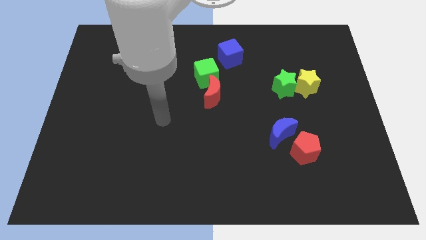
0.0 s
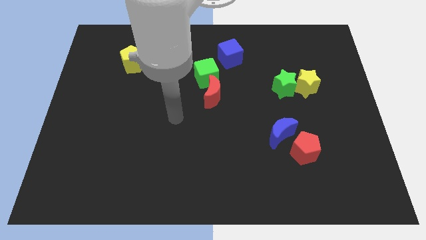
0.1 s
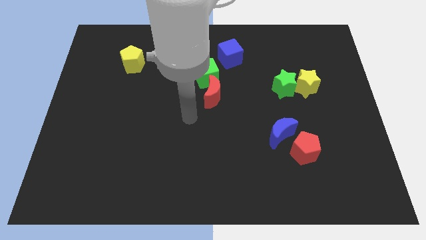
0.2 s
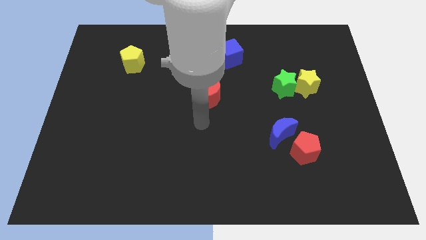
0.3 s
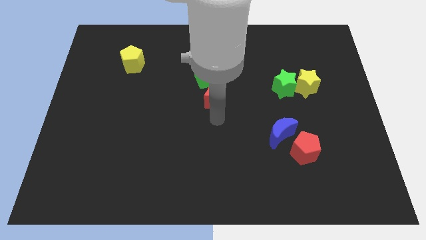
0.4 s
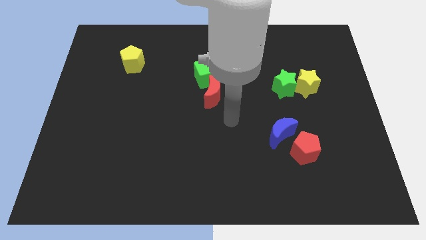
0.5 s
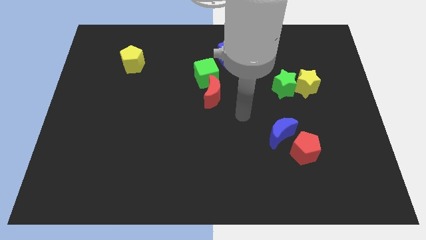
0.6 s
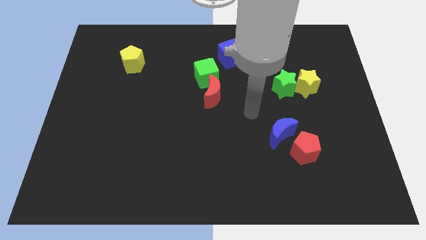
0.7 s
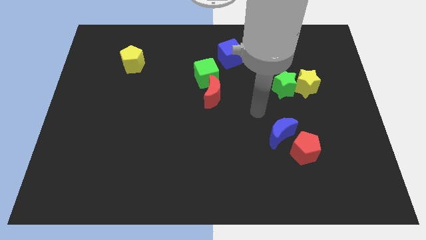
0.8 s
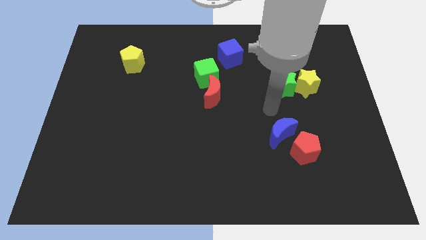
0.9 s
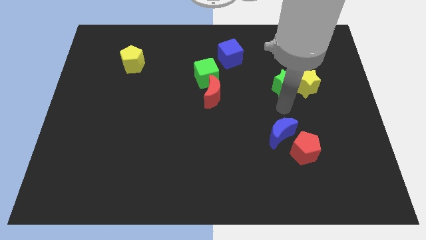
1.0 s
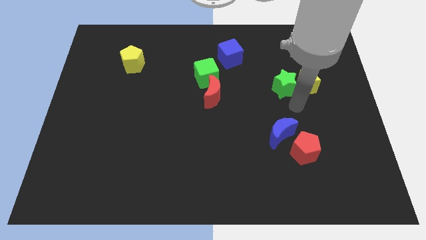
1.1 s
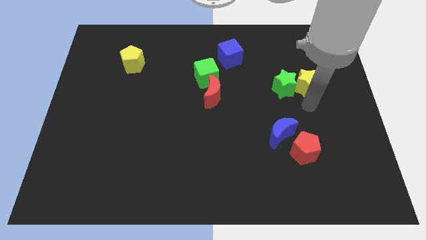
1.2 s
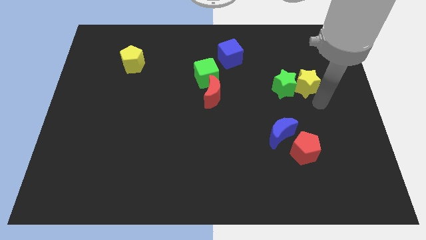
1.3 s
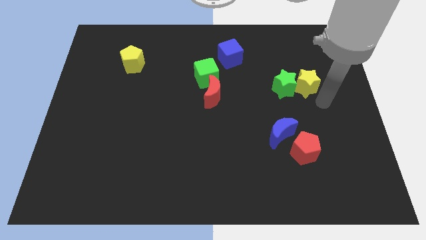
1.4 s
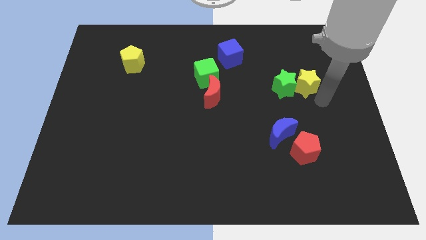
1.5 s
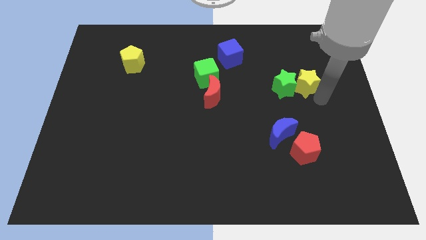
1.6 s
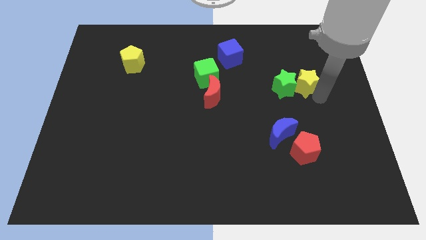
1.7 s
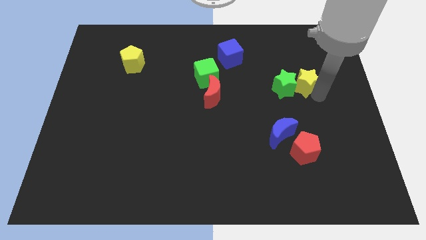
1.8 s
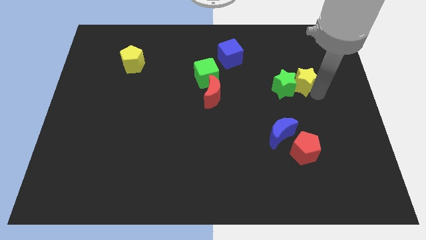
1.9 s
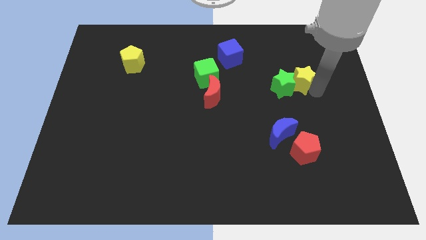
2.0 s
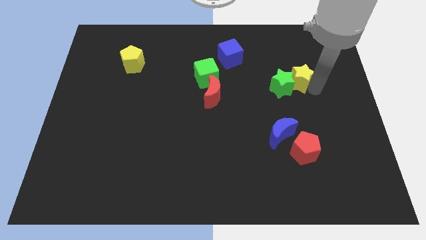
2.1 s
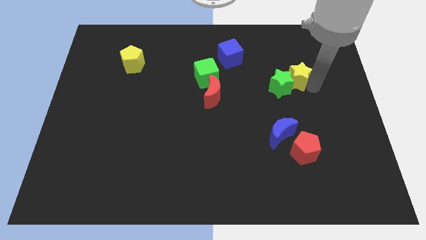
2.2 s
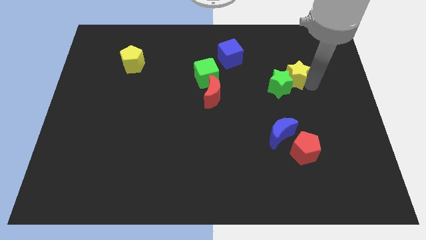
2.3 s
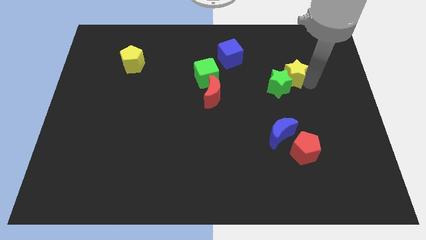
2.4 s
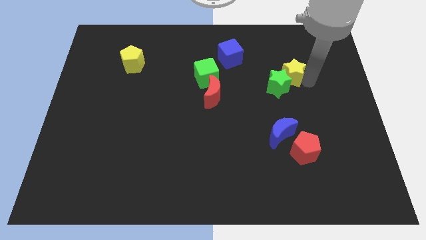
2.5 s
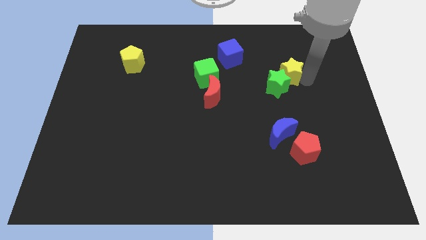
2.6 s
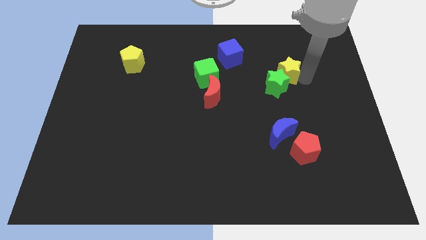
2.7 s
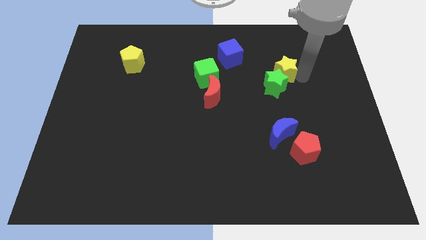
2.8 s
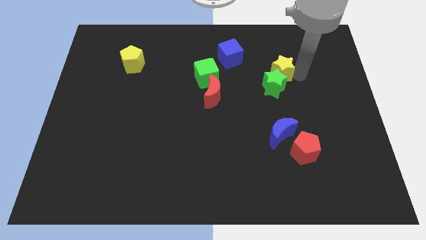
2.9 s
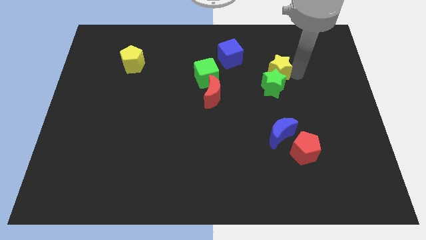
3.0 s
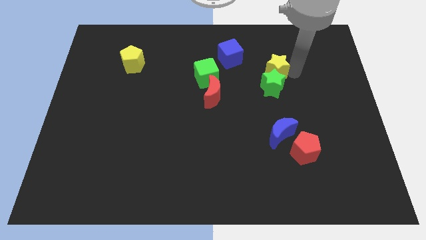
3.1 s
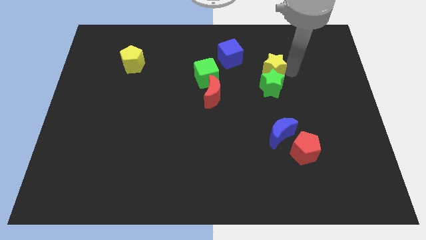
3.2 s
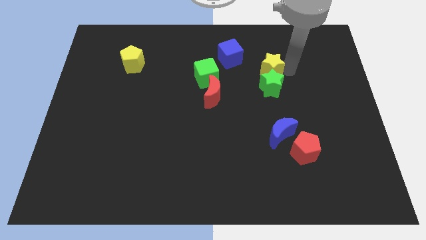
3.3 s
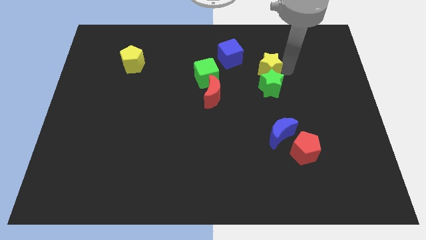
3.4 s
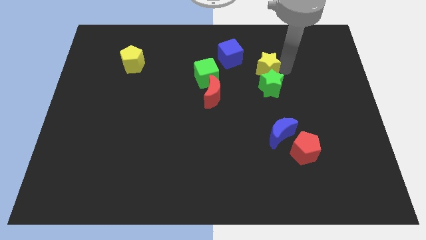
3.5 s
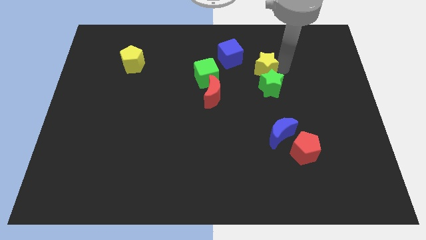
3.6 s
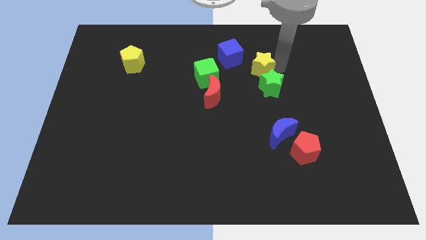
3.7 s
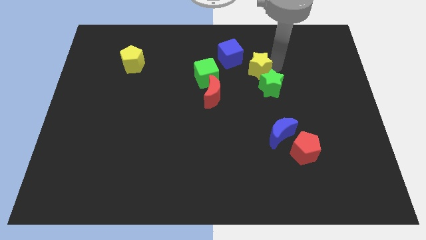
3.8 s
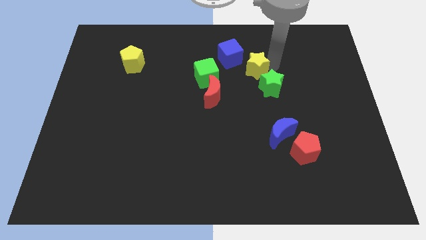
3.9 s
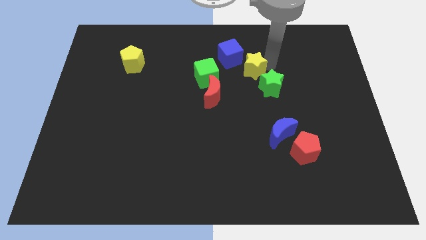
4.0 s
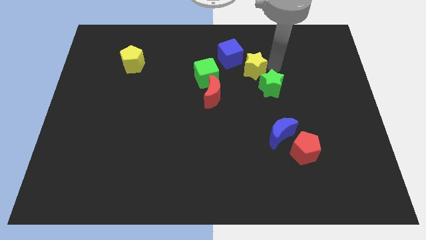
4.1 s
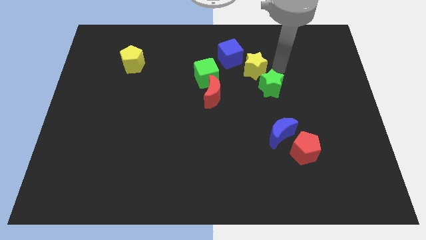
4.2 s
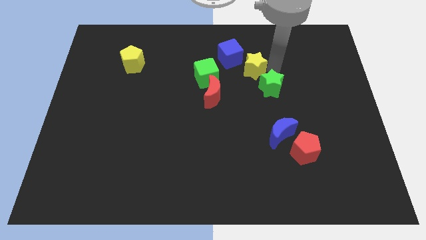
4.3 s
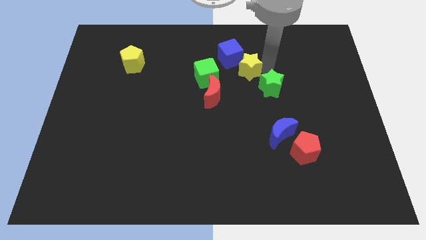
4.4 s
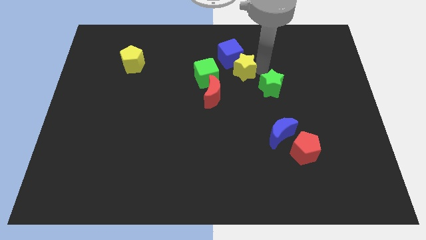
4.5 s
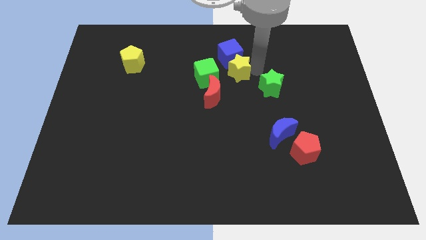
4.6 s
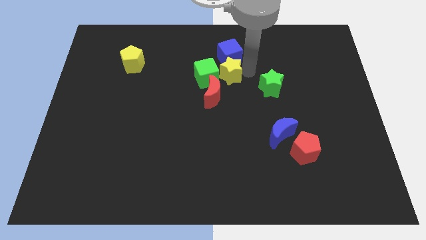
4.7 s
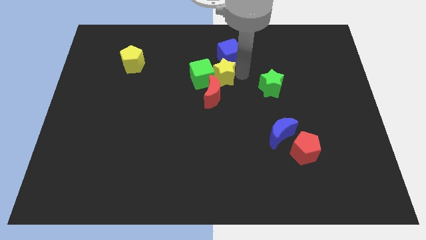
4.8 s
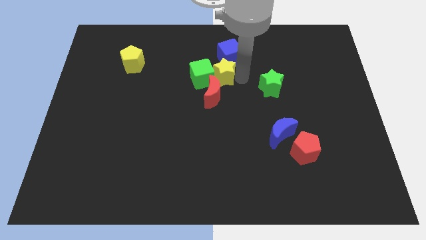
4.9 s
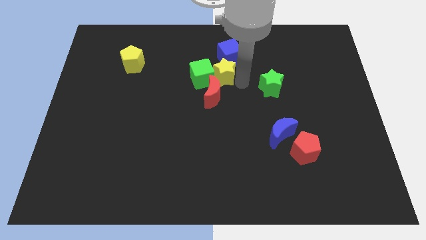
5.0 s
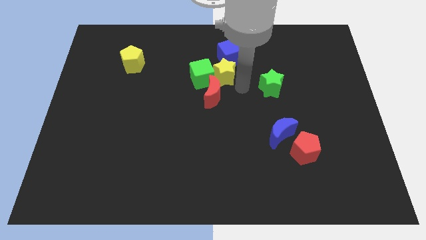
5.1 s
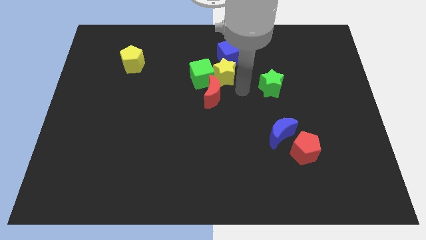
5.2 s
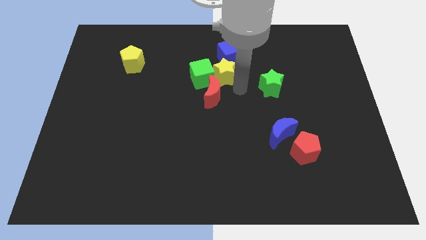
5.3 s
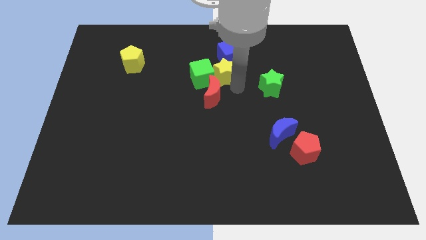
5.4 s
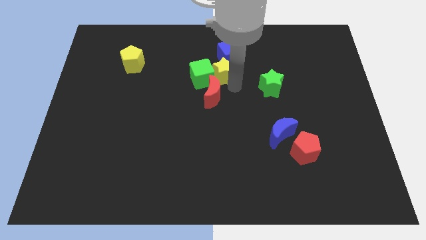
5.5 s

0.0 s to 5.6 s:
move the yellow star left

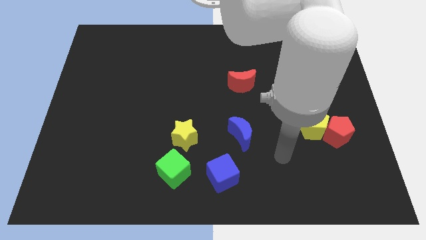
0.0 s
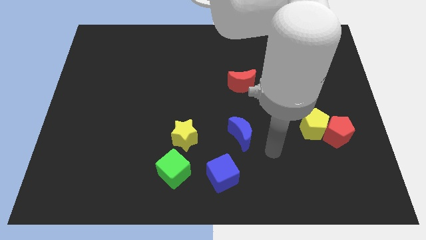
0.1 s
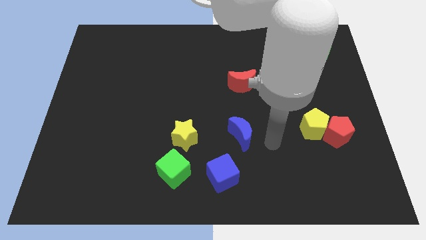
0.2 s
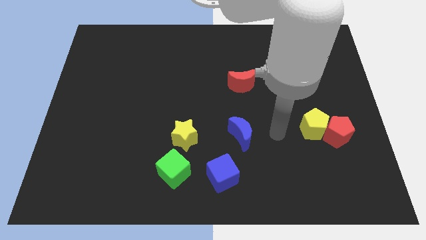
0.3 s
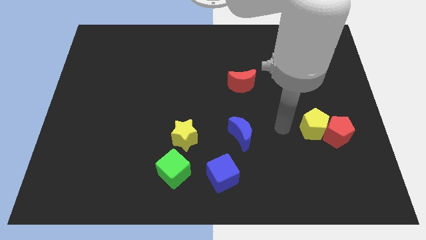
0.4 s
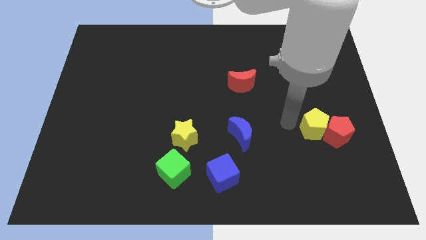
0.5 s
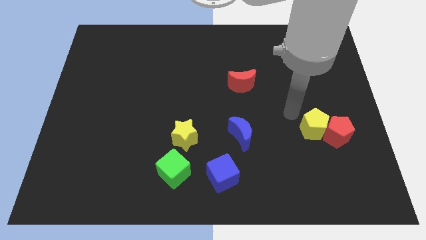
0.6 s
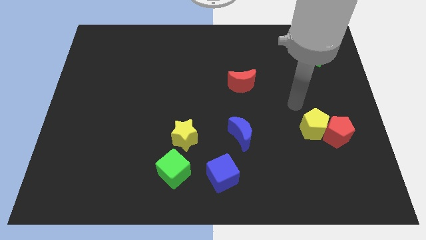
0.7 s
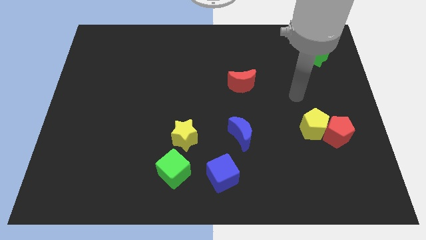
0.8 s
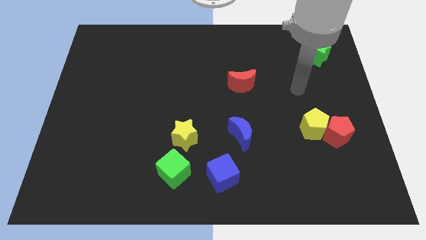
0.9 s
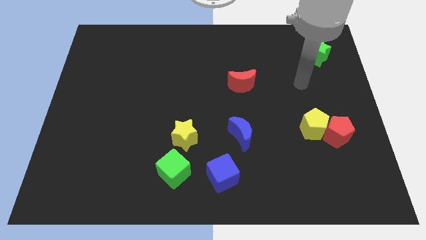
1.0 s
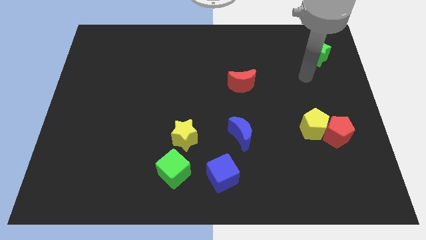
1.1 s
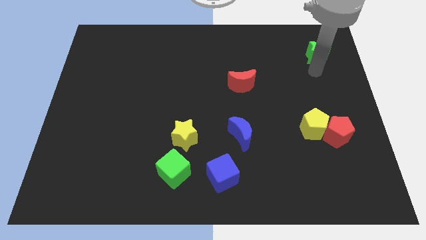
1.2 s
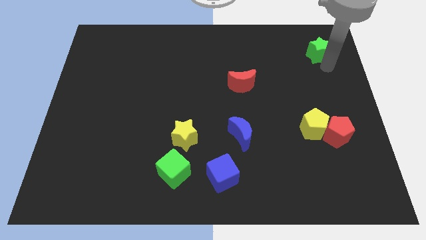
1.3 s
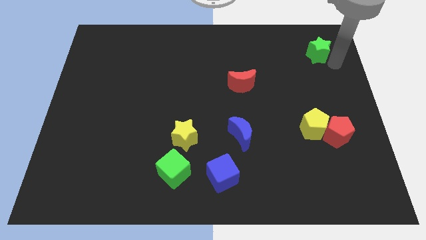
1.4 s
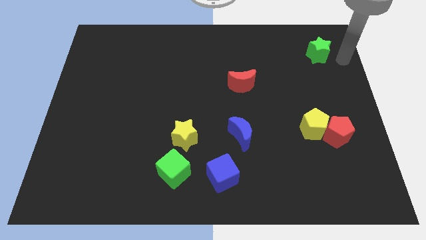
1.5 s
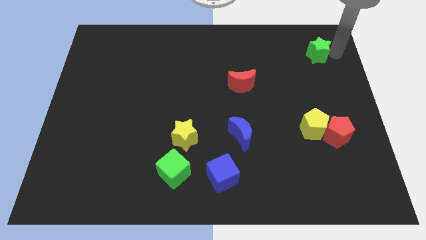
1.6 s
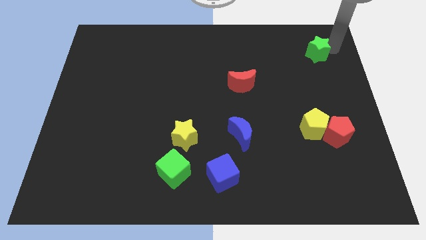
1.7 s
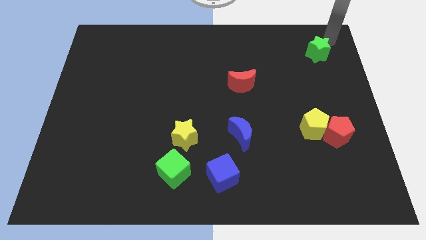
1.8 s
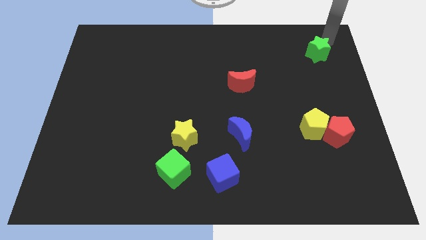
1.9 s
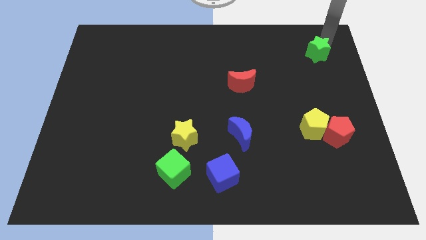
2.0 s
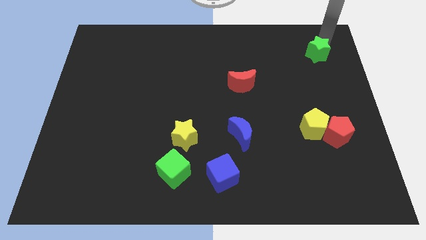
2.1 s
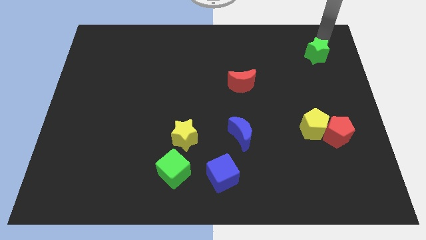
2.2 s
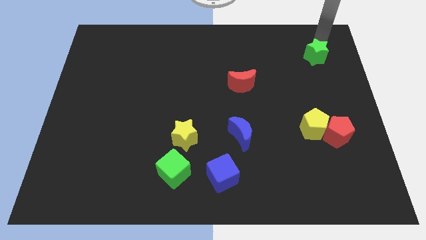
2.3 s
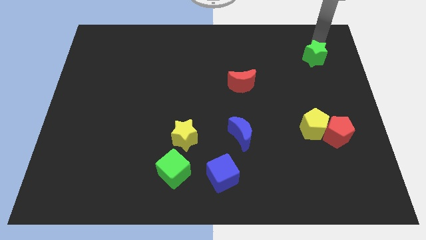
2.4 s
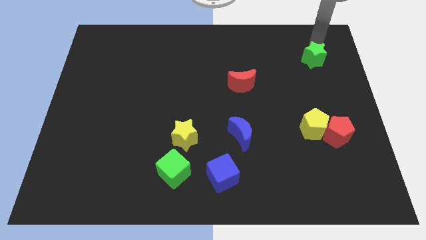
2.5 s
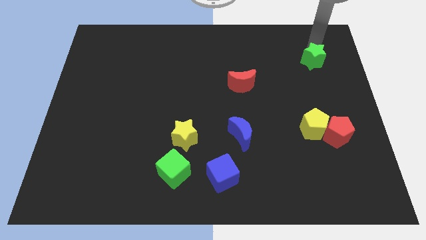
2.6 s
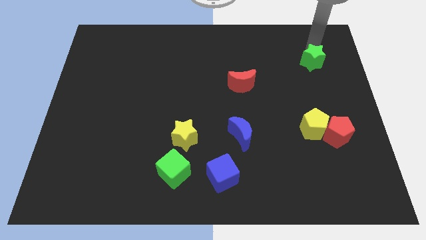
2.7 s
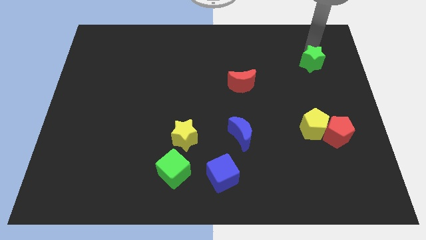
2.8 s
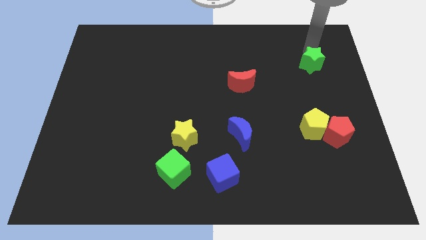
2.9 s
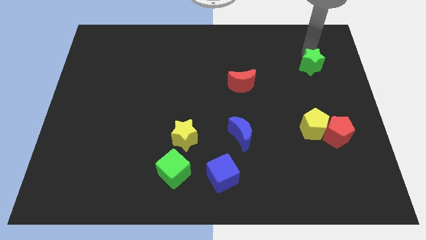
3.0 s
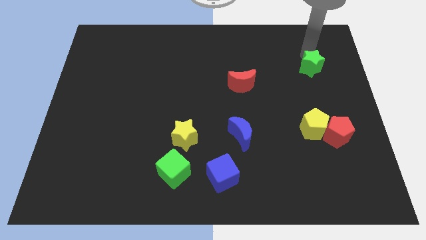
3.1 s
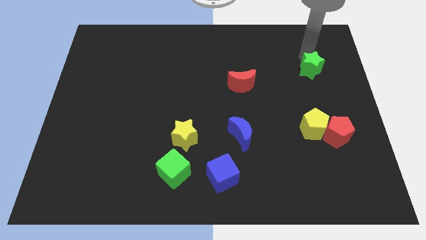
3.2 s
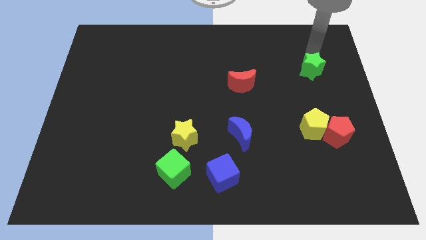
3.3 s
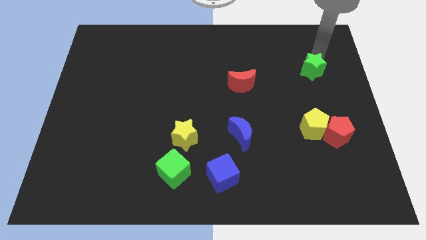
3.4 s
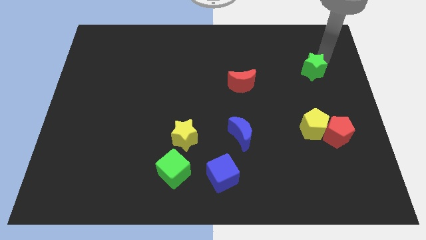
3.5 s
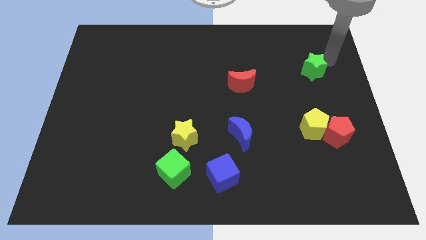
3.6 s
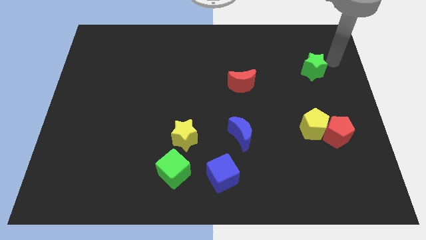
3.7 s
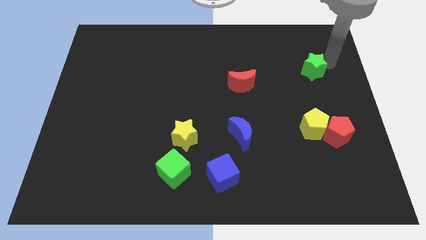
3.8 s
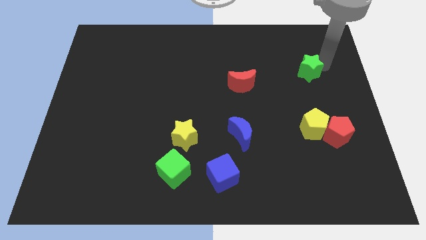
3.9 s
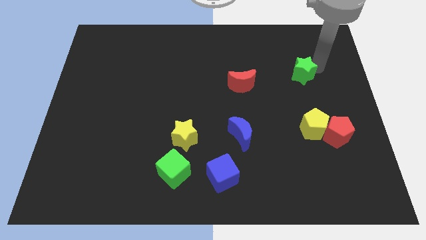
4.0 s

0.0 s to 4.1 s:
slightly slide the green star down and to the left
